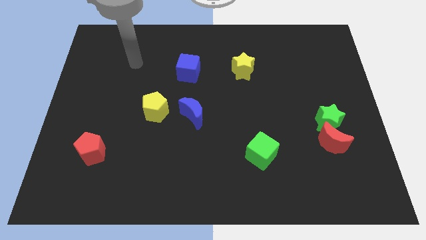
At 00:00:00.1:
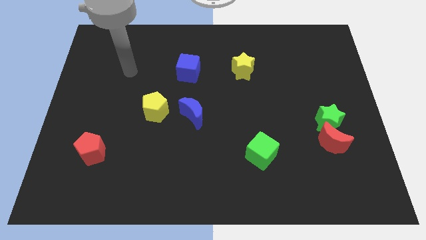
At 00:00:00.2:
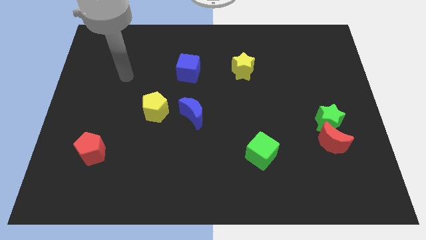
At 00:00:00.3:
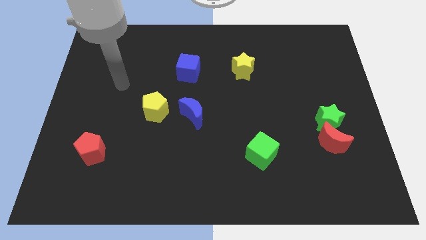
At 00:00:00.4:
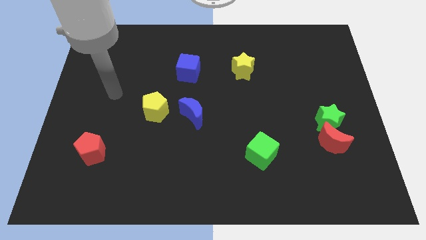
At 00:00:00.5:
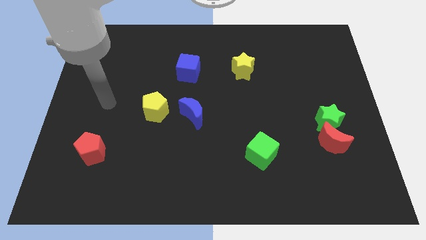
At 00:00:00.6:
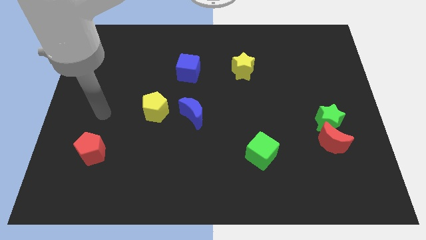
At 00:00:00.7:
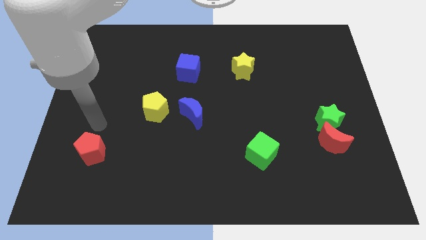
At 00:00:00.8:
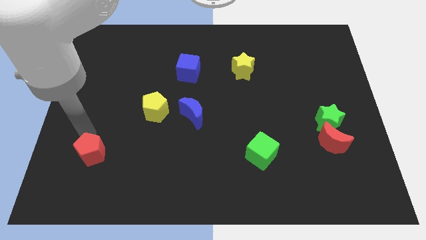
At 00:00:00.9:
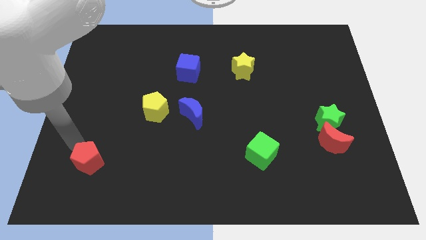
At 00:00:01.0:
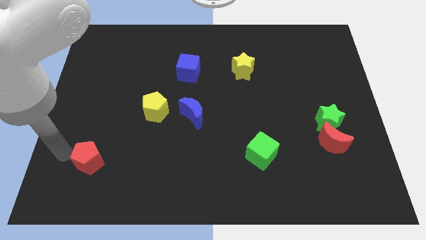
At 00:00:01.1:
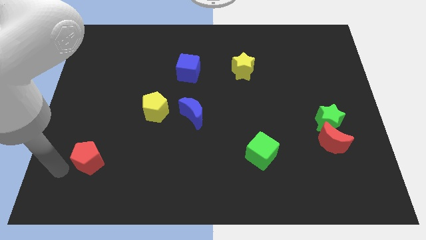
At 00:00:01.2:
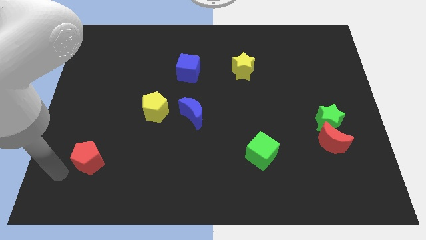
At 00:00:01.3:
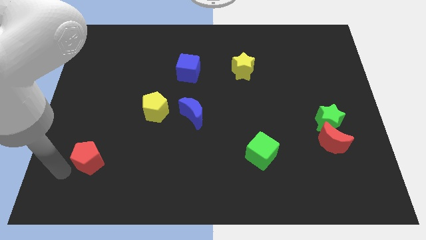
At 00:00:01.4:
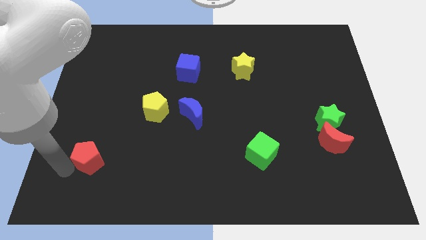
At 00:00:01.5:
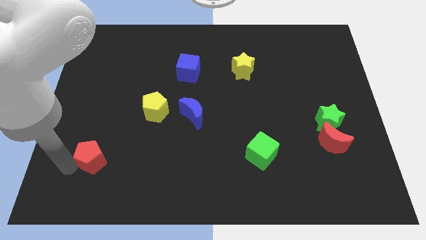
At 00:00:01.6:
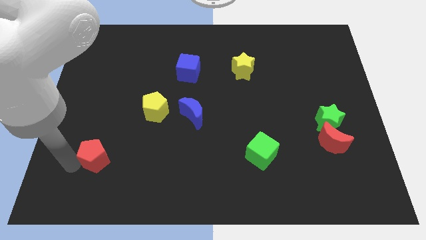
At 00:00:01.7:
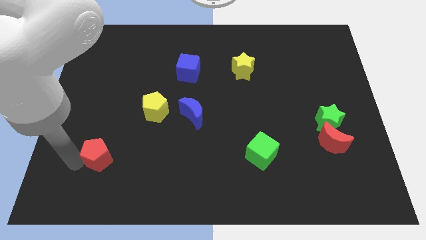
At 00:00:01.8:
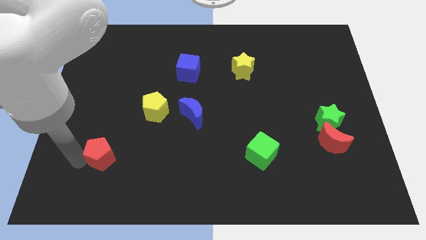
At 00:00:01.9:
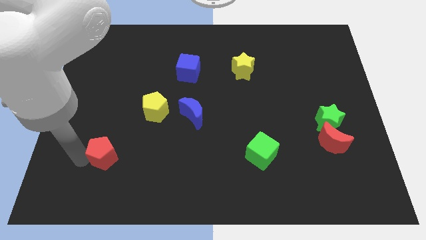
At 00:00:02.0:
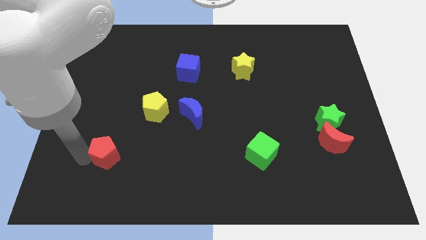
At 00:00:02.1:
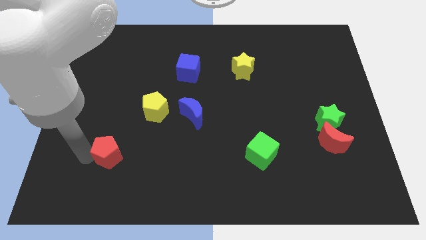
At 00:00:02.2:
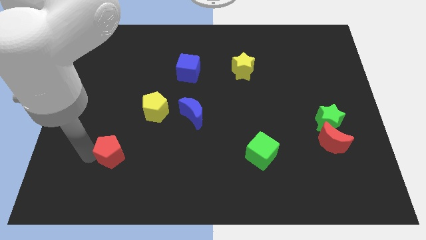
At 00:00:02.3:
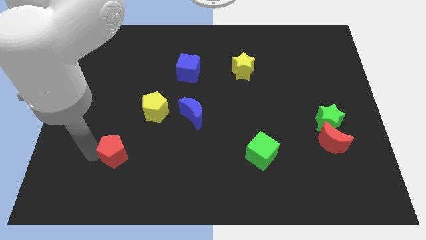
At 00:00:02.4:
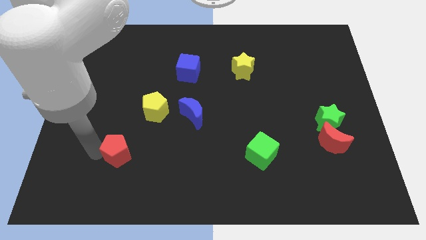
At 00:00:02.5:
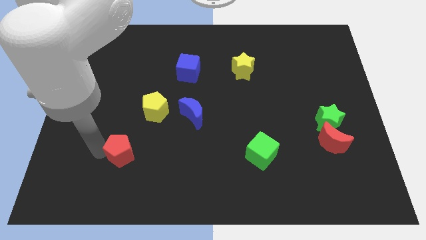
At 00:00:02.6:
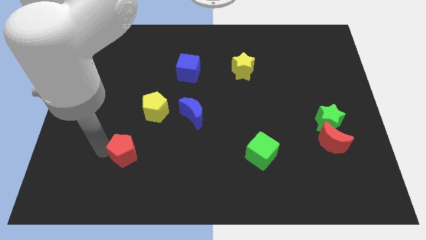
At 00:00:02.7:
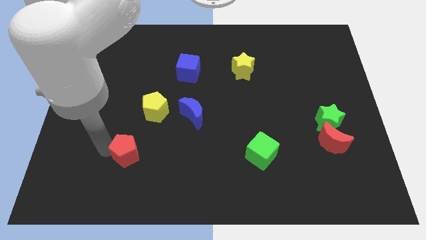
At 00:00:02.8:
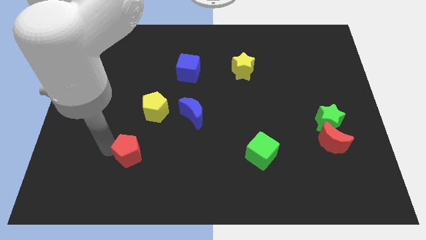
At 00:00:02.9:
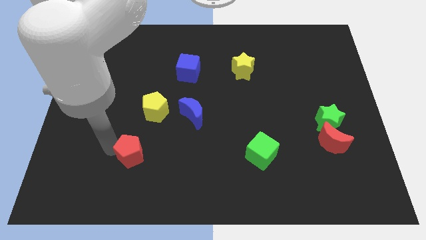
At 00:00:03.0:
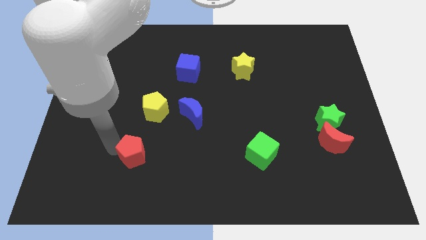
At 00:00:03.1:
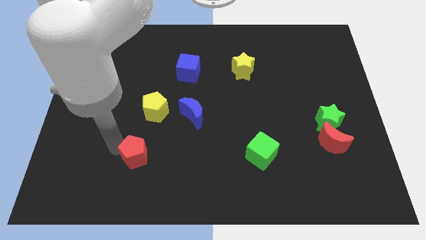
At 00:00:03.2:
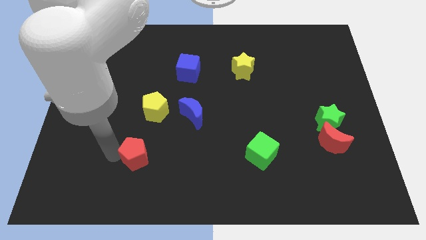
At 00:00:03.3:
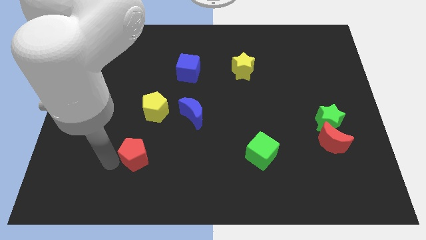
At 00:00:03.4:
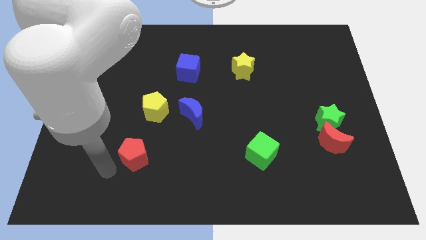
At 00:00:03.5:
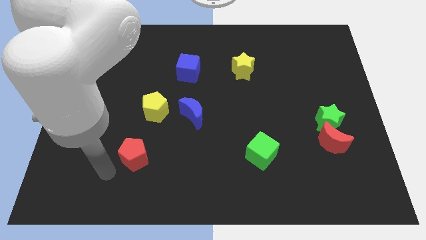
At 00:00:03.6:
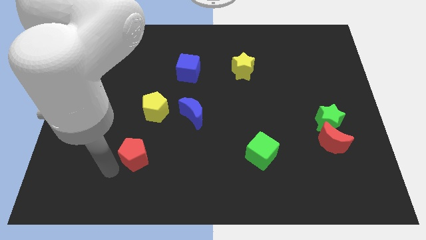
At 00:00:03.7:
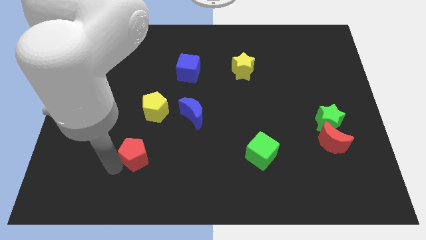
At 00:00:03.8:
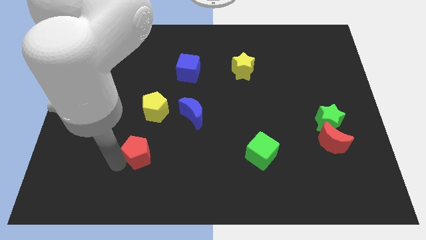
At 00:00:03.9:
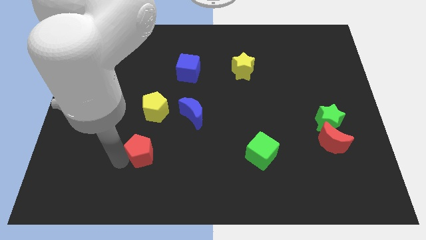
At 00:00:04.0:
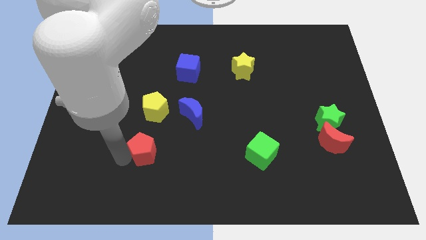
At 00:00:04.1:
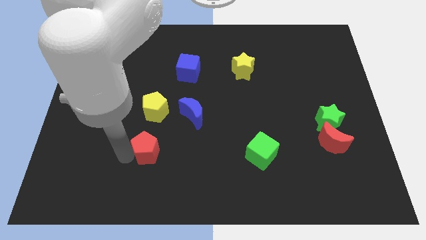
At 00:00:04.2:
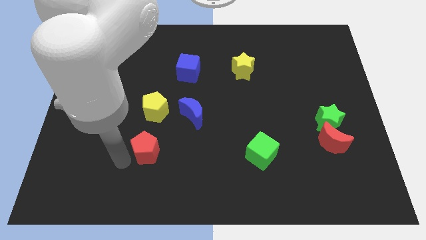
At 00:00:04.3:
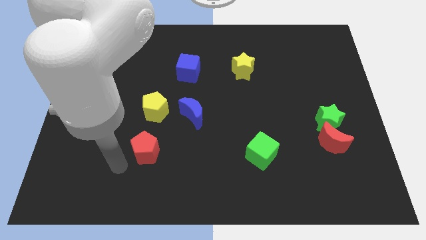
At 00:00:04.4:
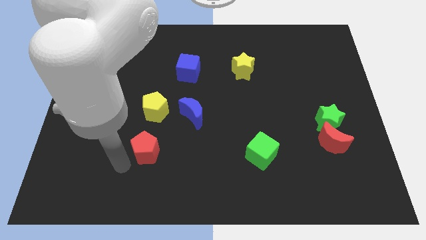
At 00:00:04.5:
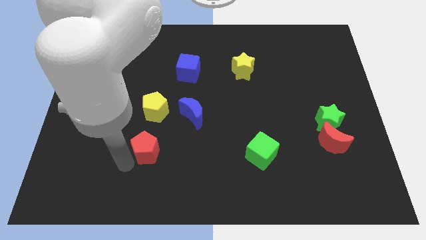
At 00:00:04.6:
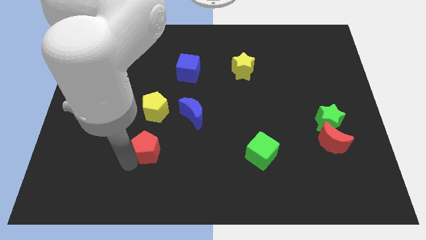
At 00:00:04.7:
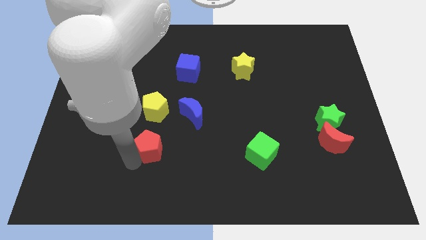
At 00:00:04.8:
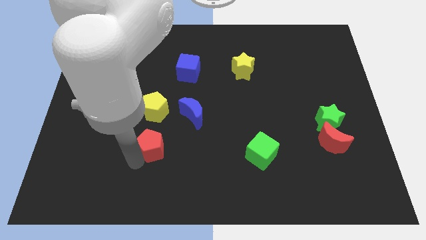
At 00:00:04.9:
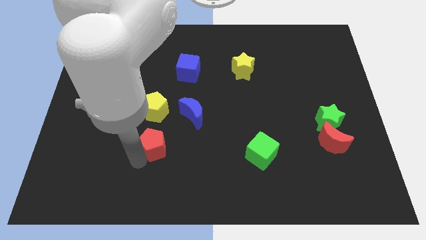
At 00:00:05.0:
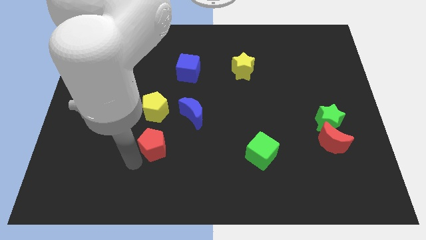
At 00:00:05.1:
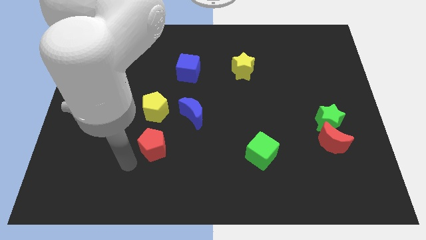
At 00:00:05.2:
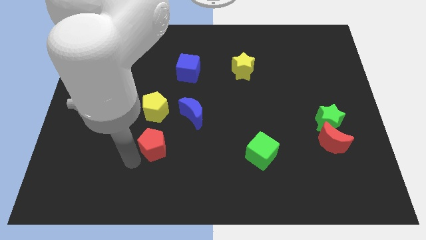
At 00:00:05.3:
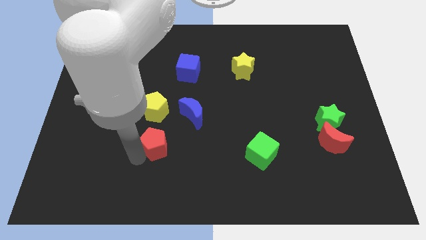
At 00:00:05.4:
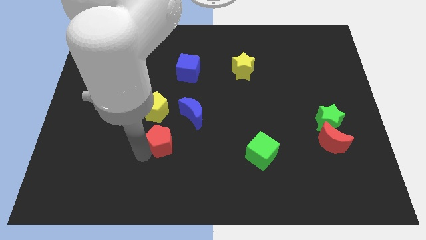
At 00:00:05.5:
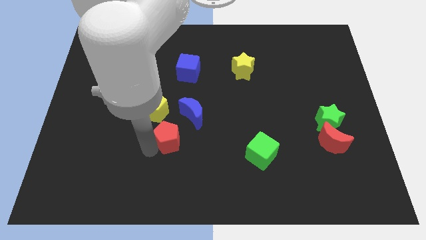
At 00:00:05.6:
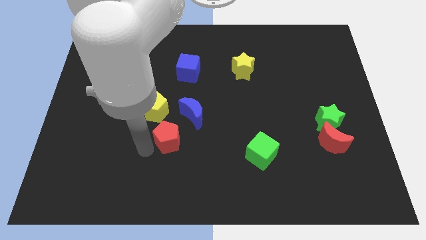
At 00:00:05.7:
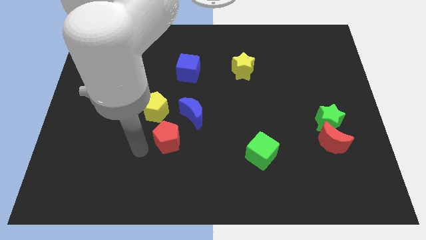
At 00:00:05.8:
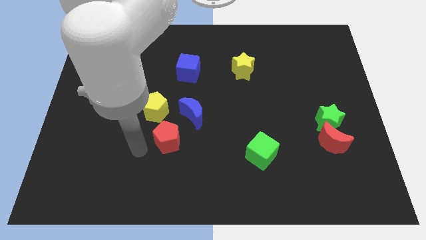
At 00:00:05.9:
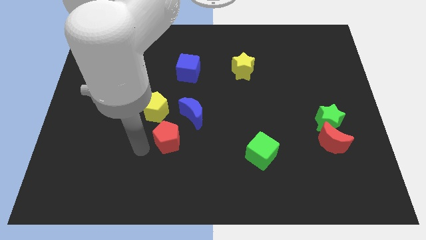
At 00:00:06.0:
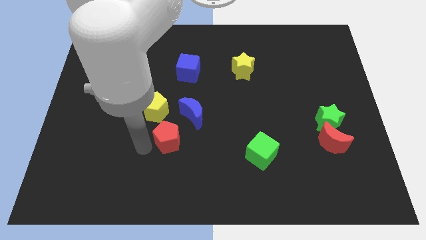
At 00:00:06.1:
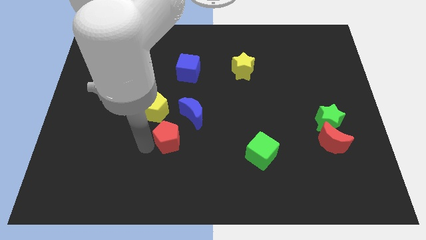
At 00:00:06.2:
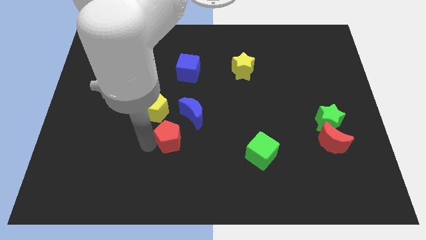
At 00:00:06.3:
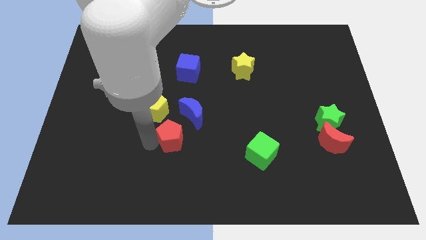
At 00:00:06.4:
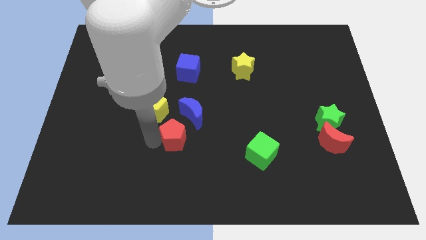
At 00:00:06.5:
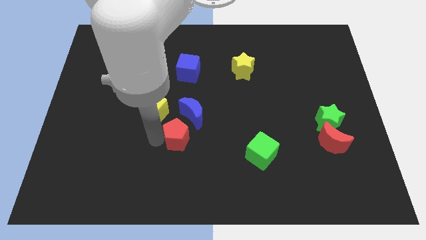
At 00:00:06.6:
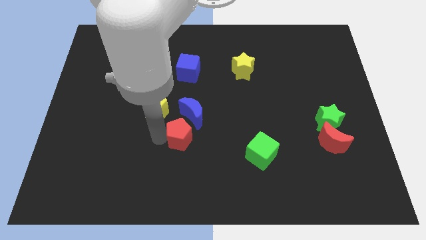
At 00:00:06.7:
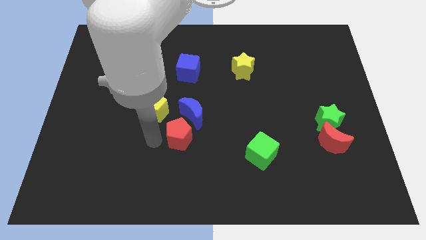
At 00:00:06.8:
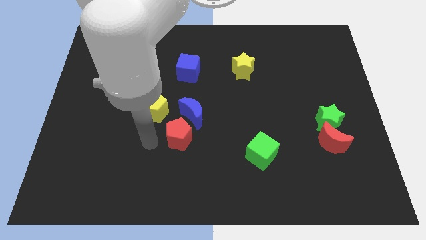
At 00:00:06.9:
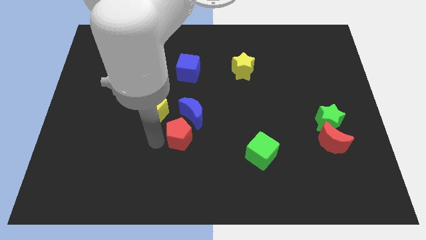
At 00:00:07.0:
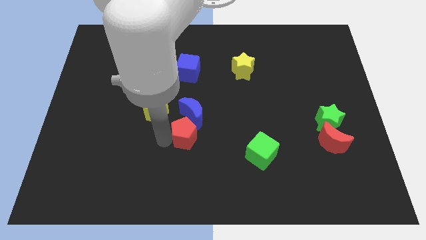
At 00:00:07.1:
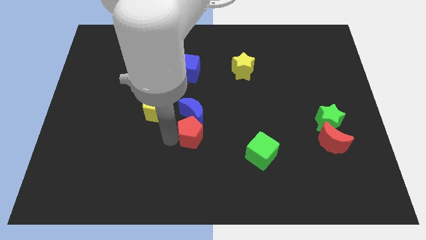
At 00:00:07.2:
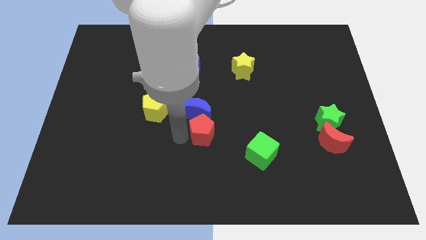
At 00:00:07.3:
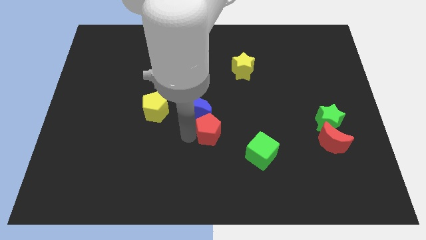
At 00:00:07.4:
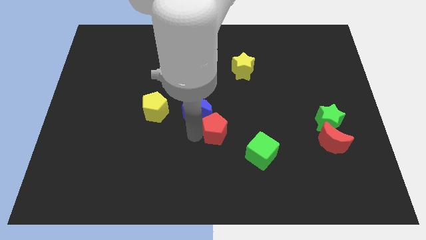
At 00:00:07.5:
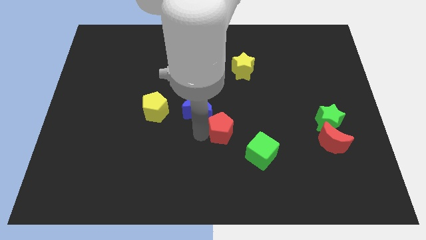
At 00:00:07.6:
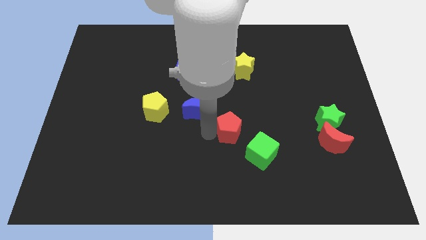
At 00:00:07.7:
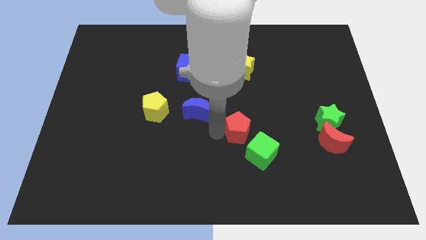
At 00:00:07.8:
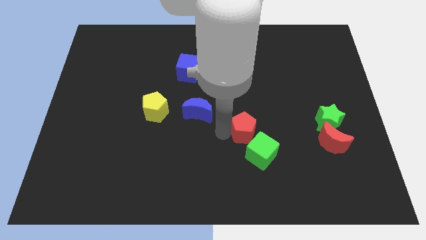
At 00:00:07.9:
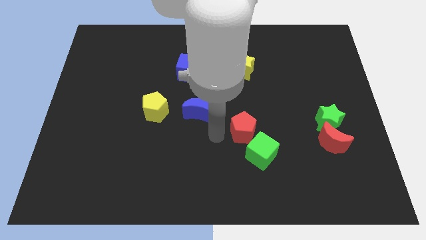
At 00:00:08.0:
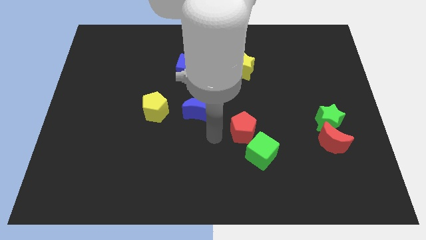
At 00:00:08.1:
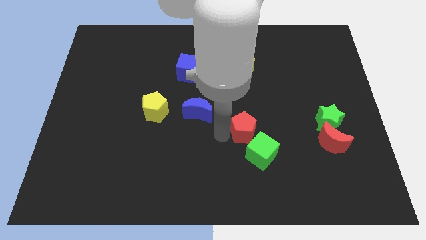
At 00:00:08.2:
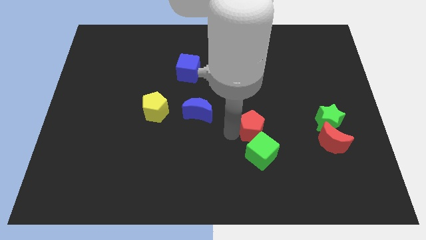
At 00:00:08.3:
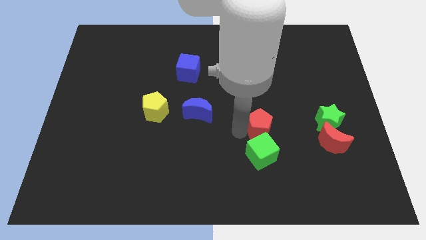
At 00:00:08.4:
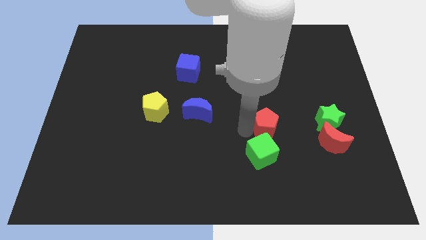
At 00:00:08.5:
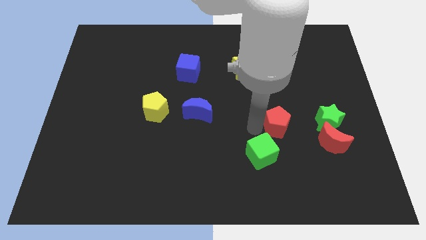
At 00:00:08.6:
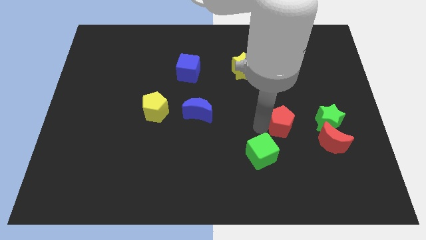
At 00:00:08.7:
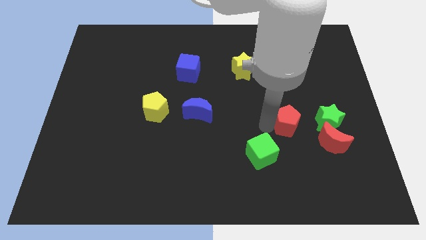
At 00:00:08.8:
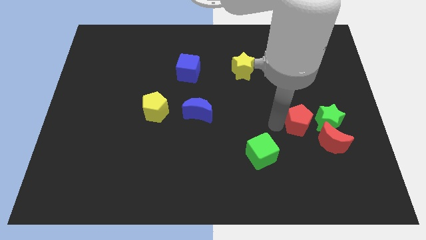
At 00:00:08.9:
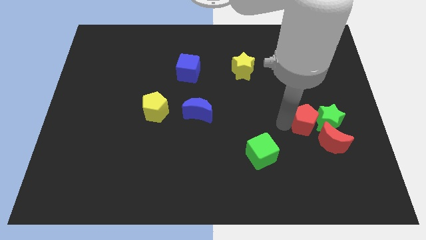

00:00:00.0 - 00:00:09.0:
move the red pentagon close to the green star
